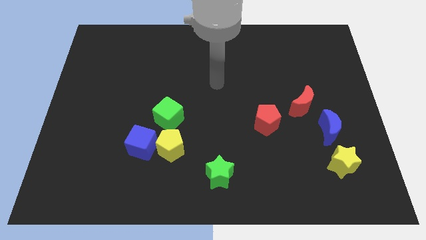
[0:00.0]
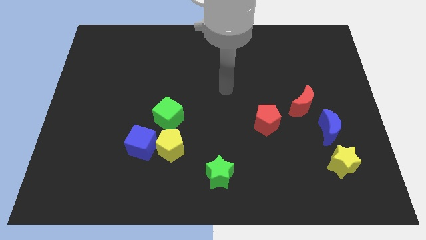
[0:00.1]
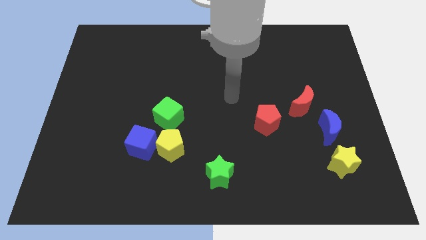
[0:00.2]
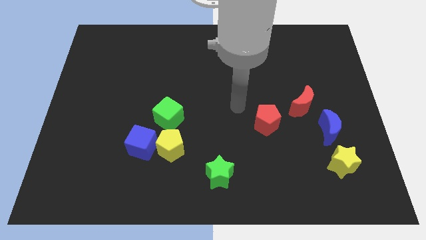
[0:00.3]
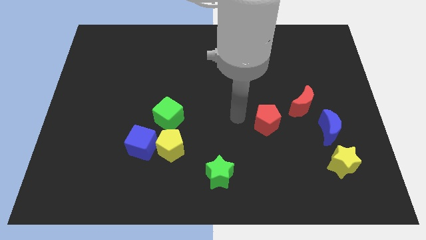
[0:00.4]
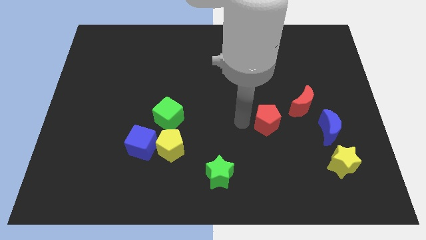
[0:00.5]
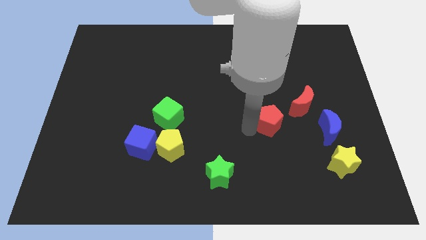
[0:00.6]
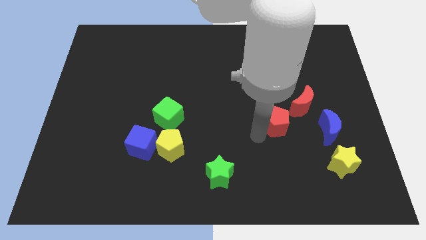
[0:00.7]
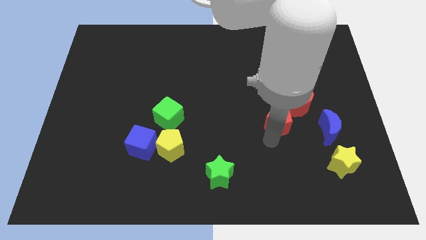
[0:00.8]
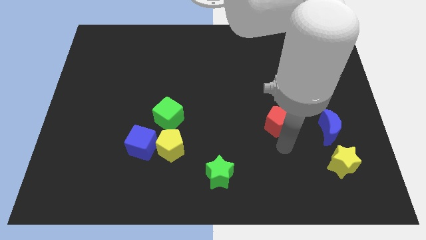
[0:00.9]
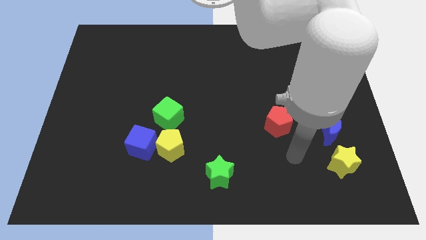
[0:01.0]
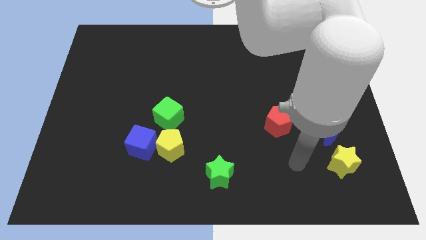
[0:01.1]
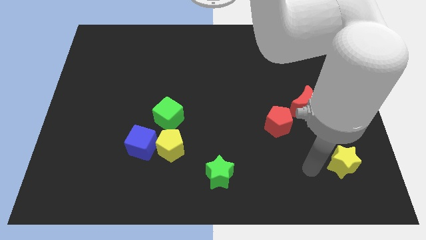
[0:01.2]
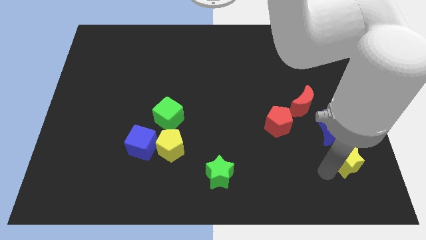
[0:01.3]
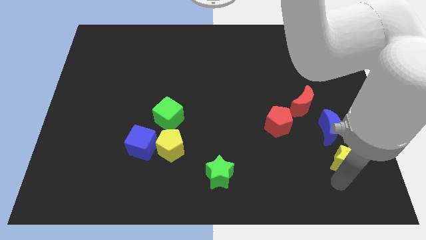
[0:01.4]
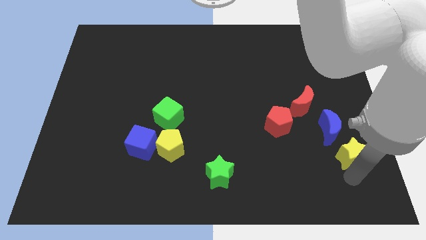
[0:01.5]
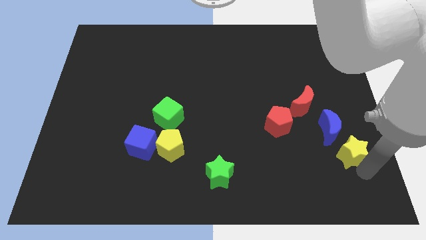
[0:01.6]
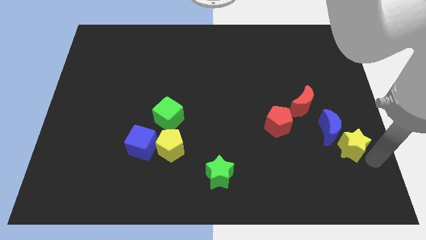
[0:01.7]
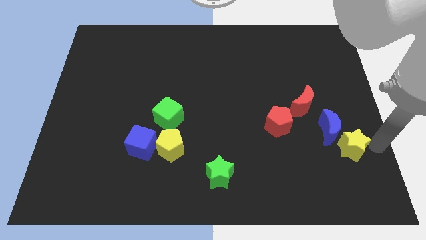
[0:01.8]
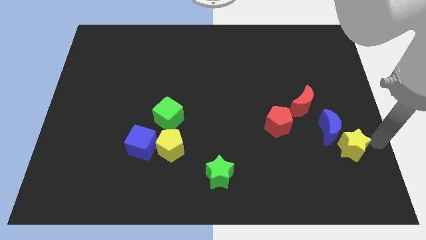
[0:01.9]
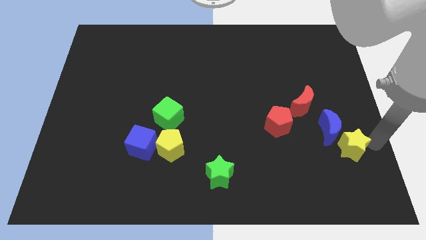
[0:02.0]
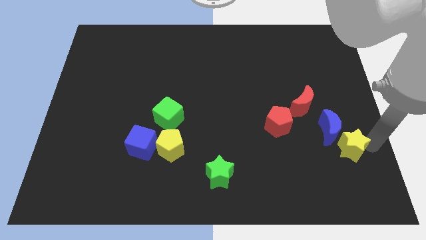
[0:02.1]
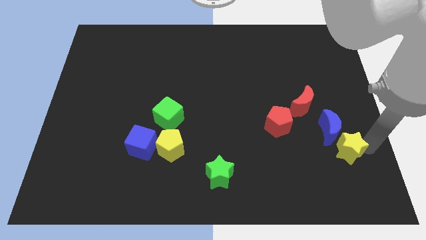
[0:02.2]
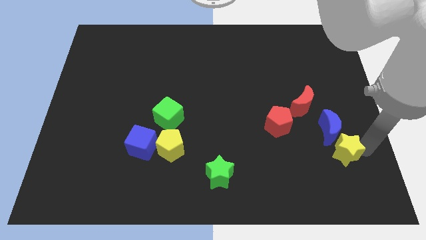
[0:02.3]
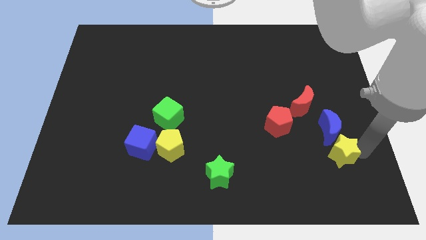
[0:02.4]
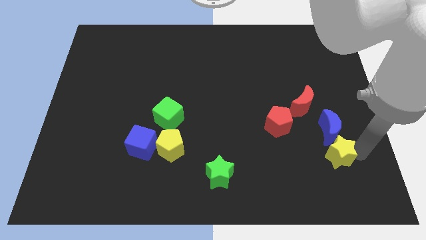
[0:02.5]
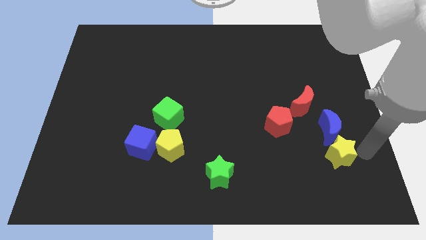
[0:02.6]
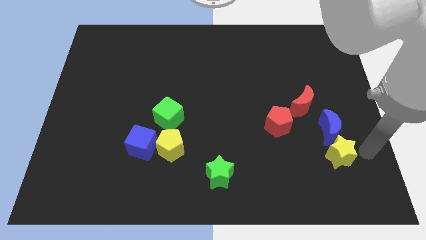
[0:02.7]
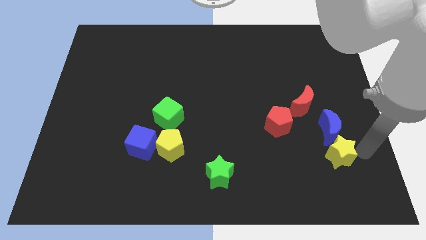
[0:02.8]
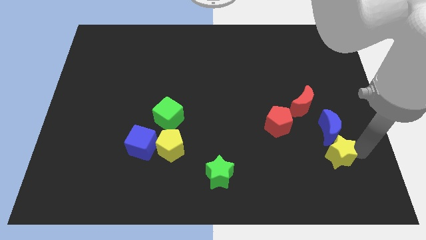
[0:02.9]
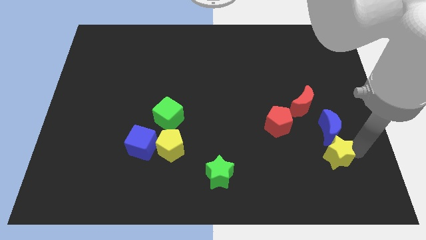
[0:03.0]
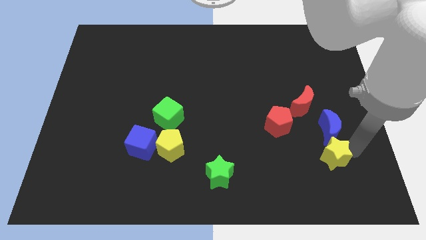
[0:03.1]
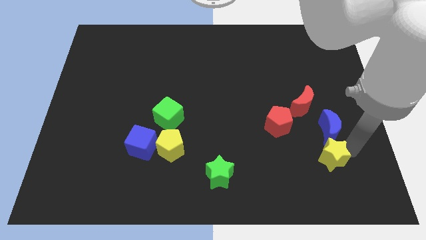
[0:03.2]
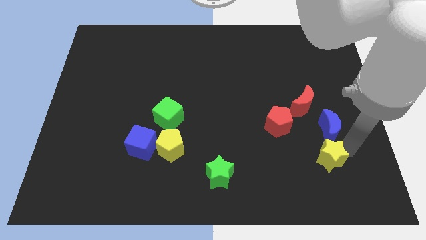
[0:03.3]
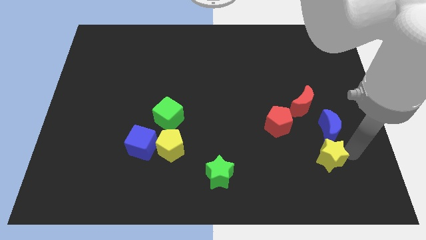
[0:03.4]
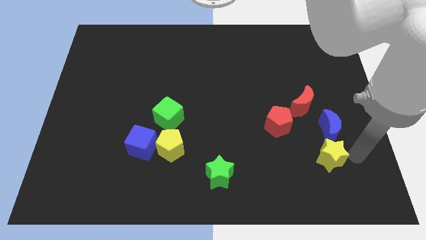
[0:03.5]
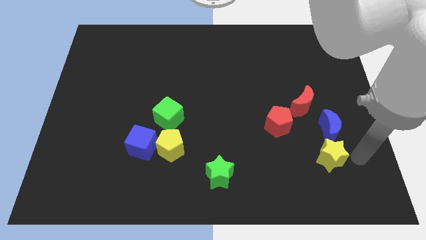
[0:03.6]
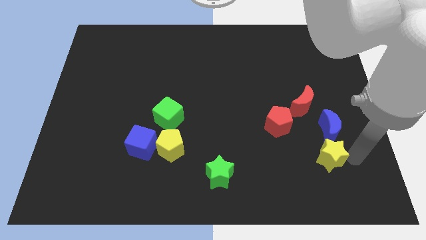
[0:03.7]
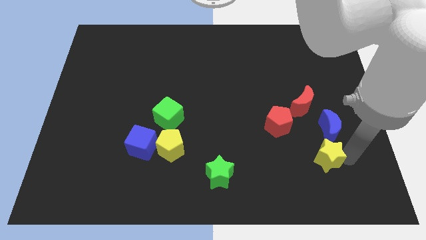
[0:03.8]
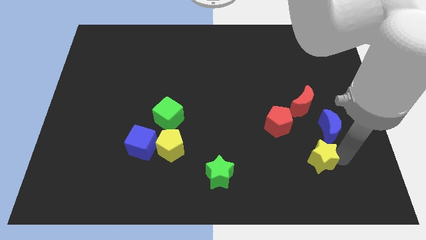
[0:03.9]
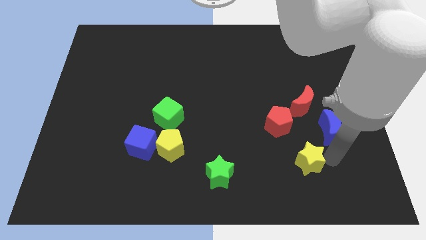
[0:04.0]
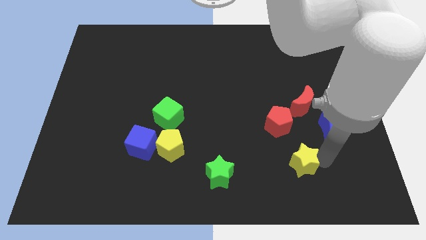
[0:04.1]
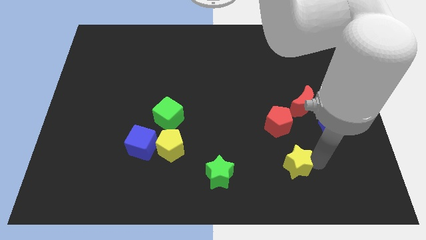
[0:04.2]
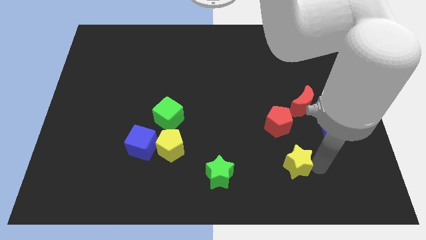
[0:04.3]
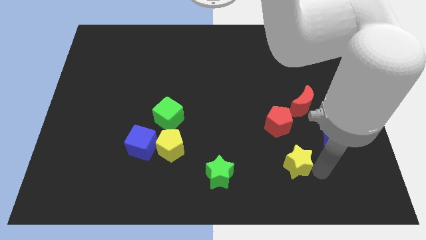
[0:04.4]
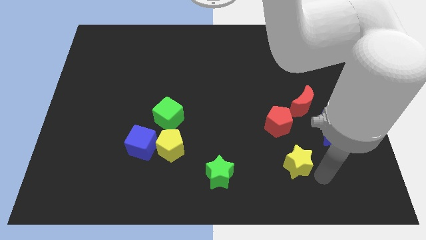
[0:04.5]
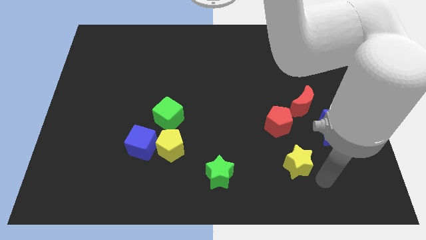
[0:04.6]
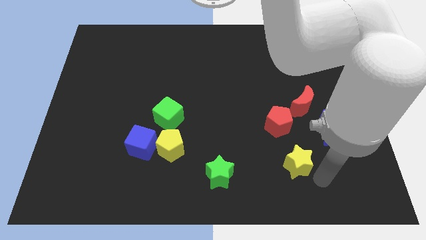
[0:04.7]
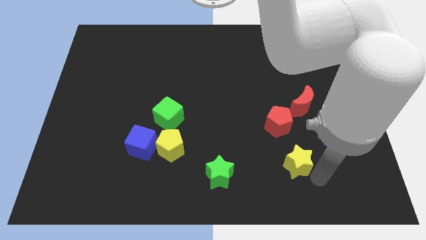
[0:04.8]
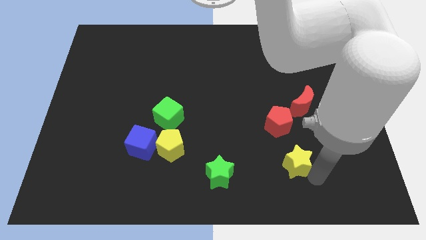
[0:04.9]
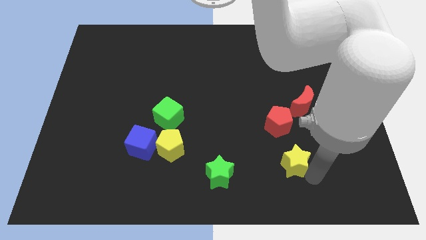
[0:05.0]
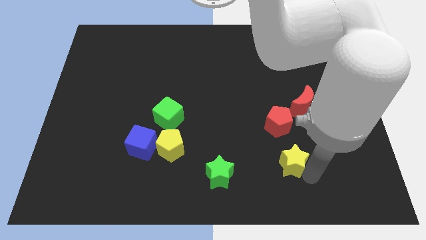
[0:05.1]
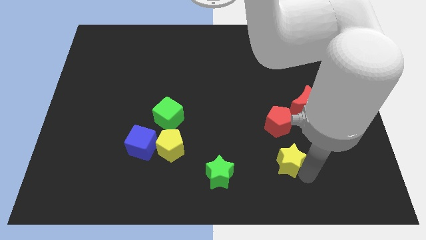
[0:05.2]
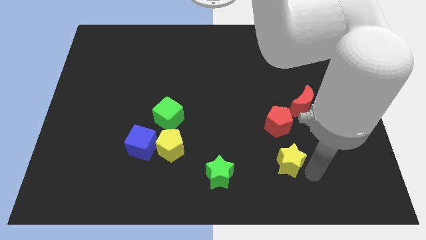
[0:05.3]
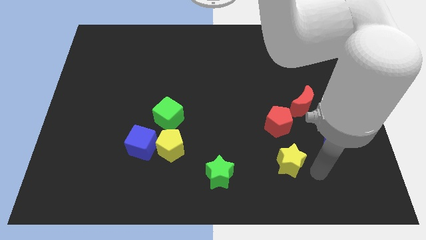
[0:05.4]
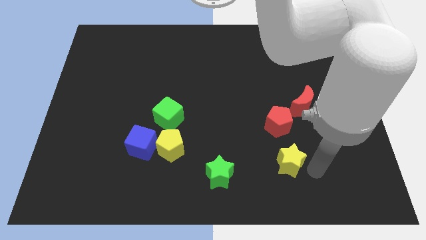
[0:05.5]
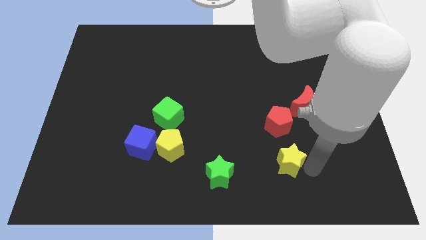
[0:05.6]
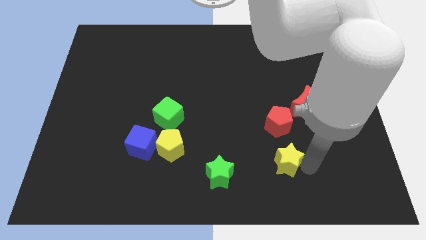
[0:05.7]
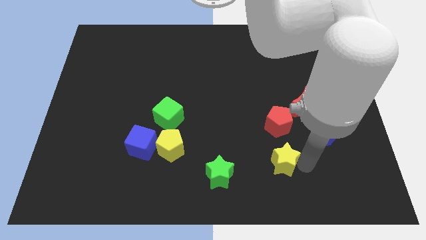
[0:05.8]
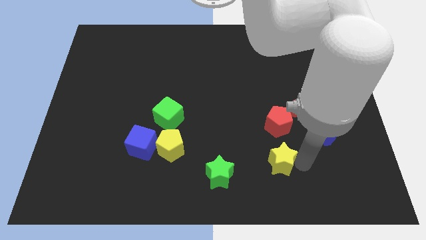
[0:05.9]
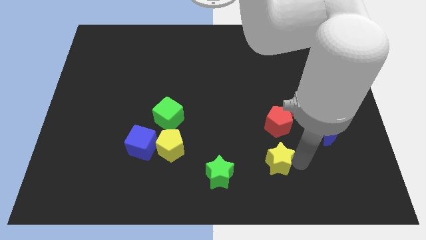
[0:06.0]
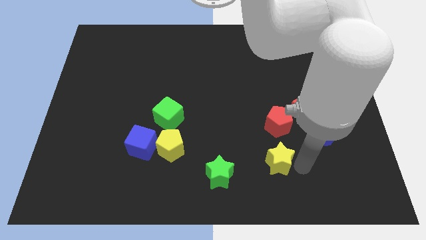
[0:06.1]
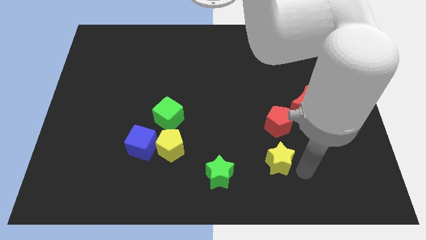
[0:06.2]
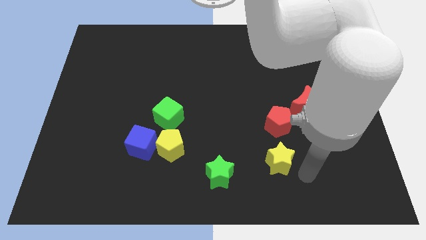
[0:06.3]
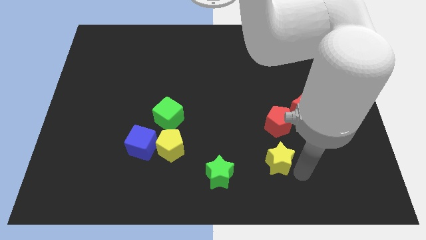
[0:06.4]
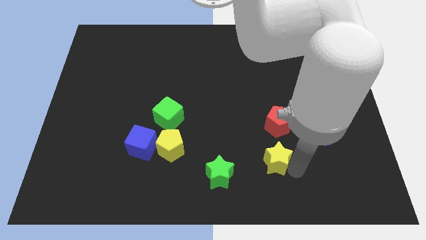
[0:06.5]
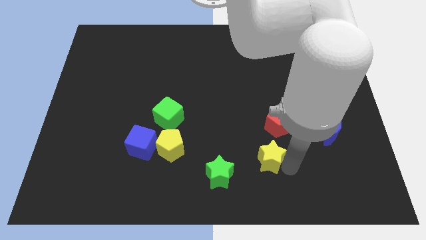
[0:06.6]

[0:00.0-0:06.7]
move the yellow star to the top right side of the green star
